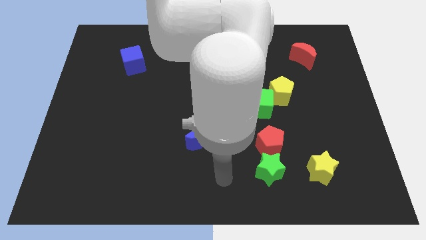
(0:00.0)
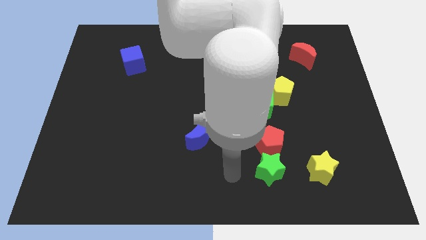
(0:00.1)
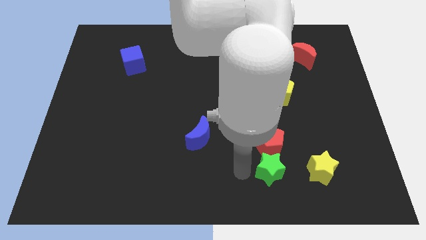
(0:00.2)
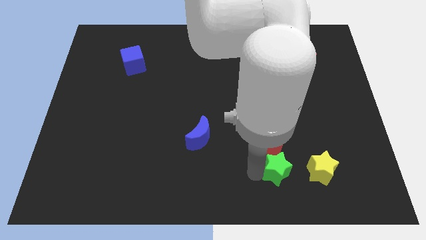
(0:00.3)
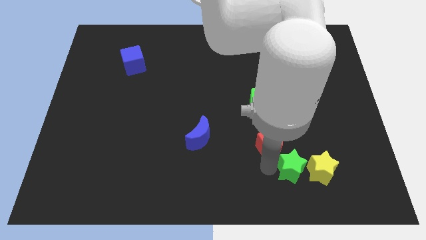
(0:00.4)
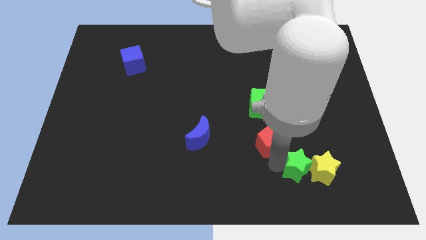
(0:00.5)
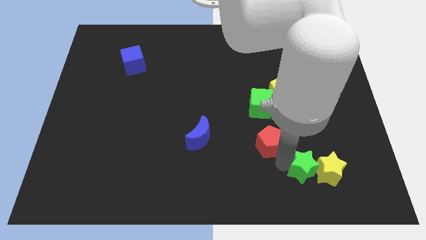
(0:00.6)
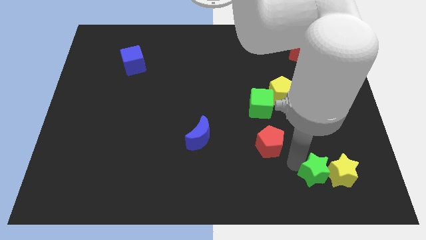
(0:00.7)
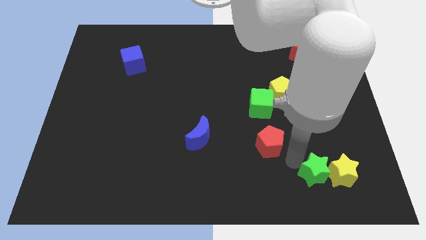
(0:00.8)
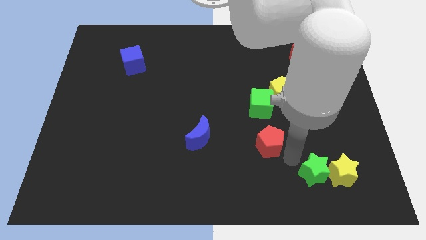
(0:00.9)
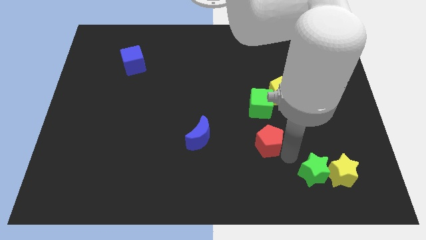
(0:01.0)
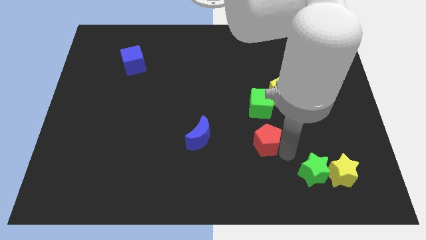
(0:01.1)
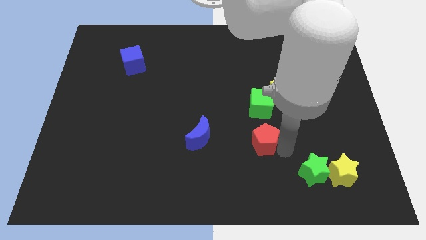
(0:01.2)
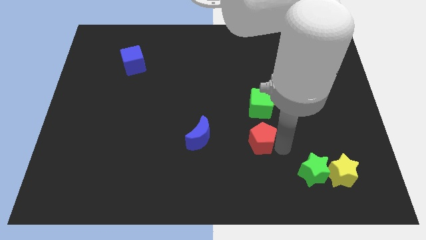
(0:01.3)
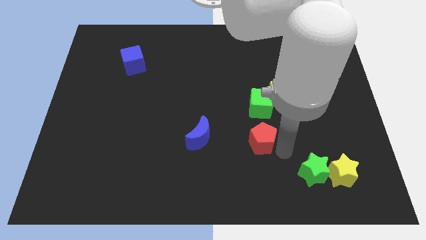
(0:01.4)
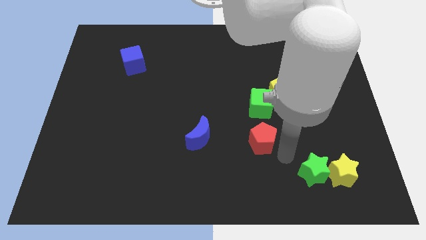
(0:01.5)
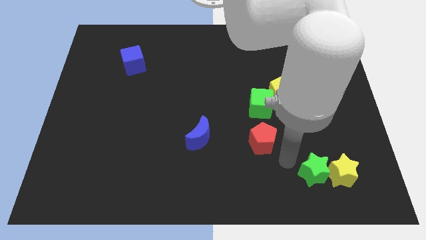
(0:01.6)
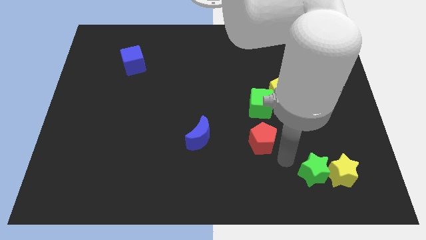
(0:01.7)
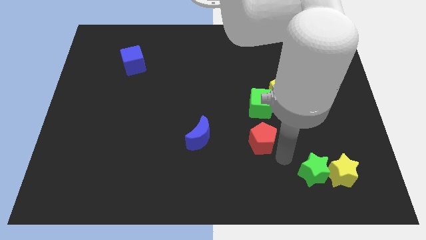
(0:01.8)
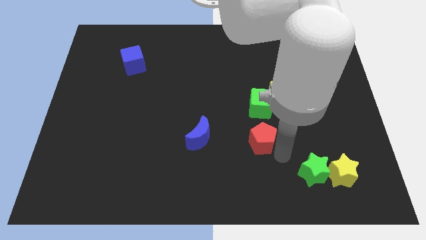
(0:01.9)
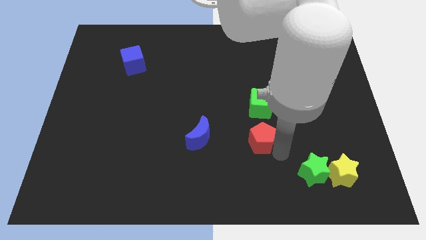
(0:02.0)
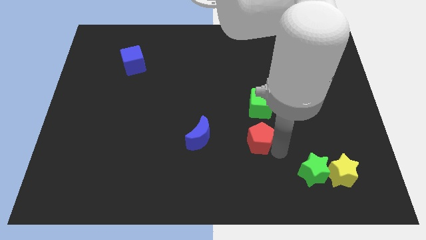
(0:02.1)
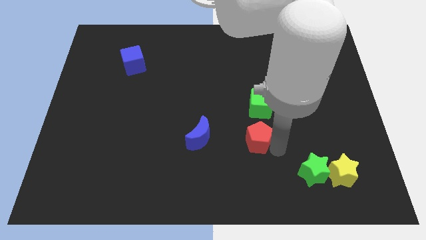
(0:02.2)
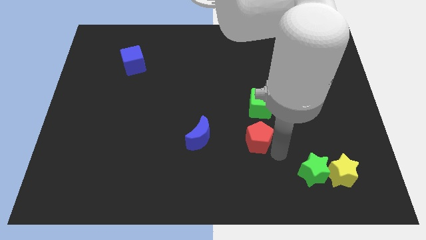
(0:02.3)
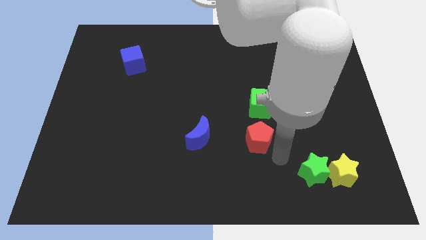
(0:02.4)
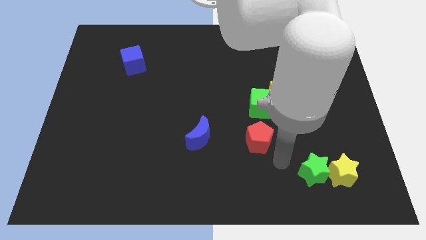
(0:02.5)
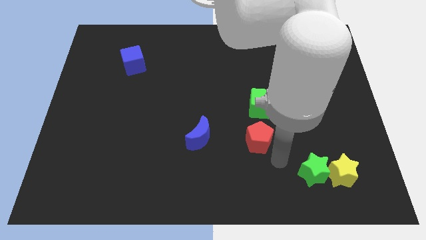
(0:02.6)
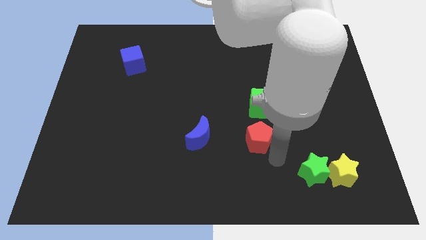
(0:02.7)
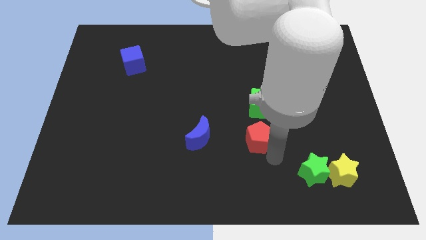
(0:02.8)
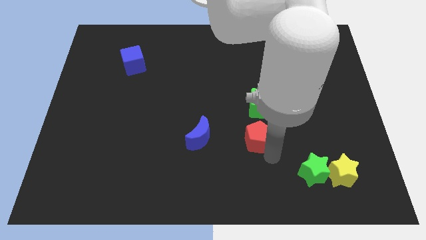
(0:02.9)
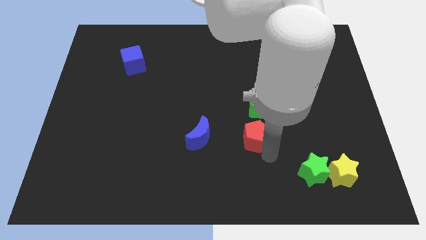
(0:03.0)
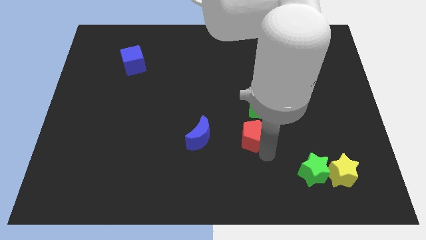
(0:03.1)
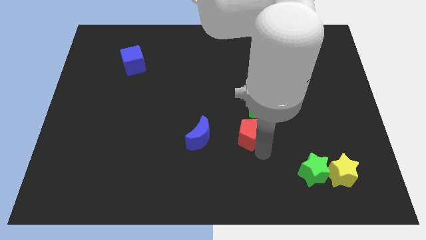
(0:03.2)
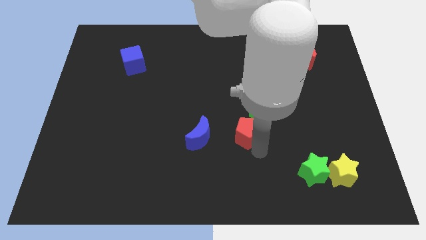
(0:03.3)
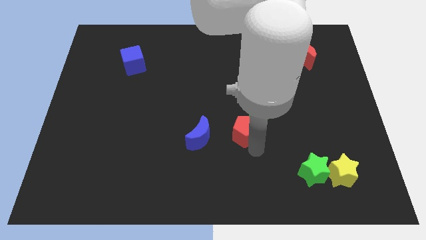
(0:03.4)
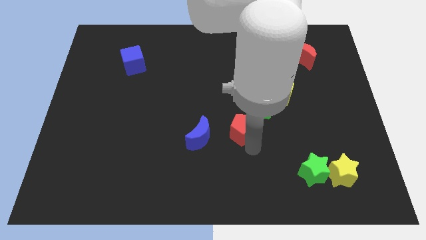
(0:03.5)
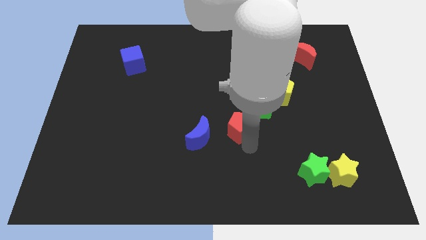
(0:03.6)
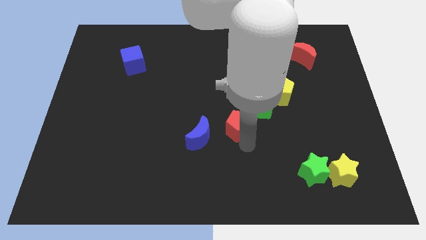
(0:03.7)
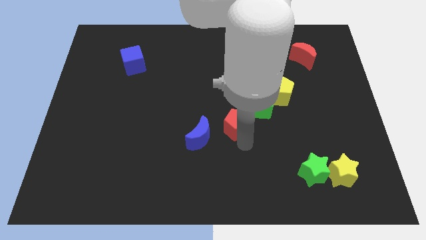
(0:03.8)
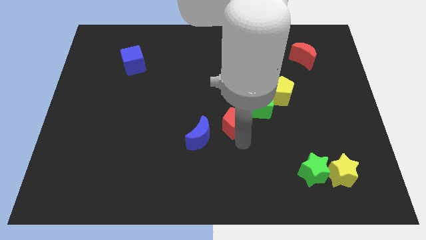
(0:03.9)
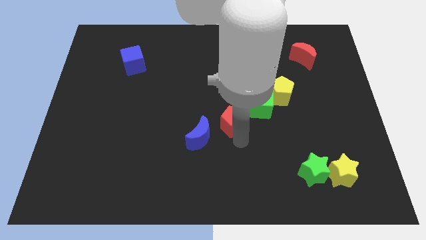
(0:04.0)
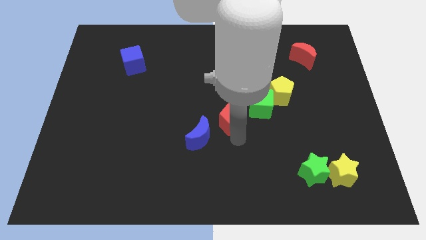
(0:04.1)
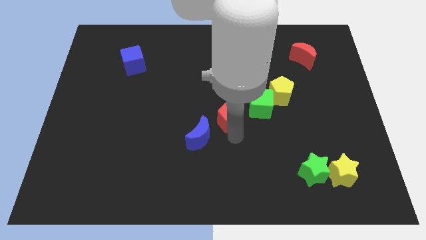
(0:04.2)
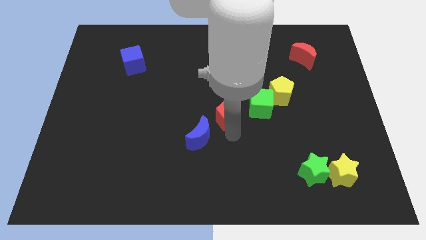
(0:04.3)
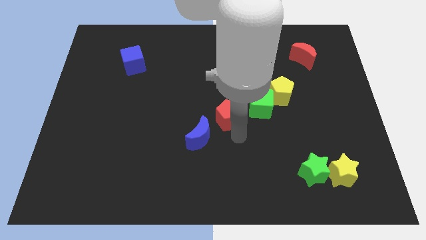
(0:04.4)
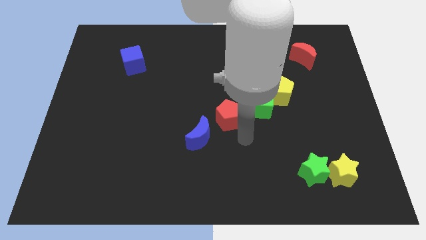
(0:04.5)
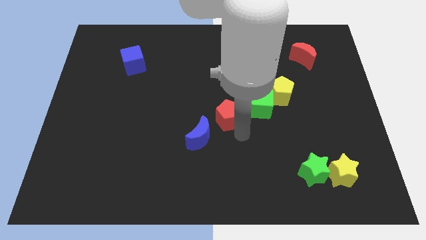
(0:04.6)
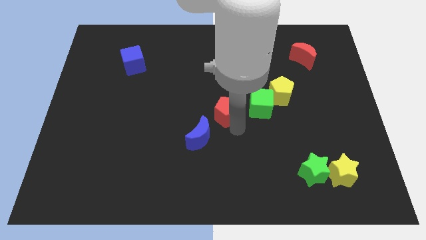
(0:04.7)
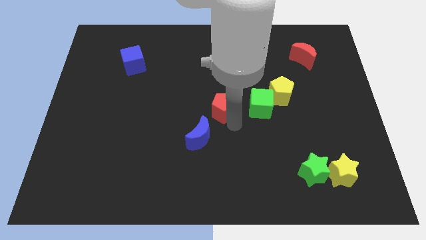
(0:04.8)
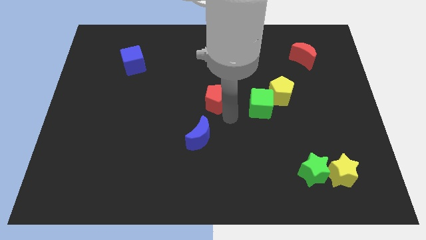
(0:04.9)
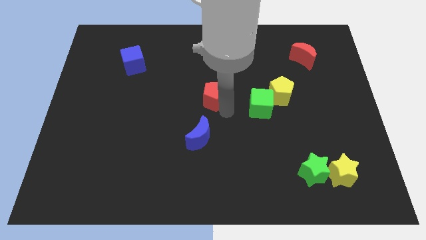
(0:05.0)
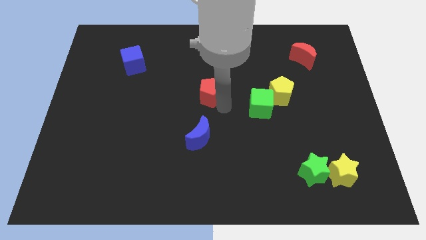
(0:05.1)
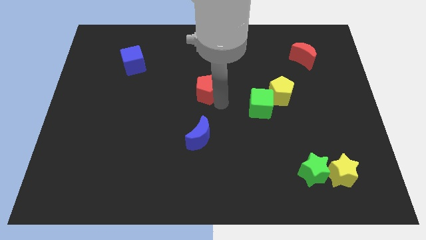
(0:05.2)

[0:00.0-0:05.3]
slide the red pentagon upwards and then left

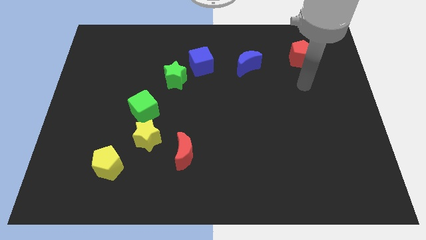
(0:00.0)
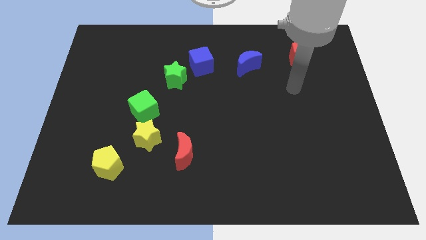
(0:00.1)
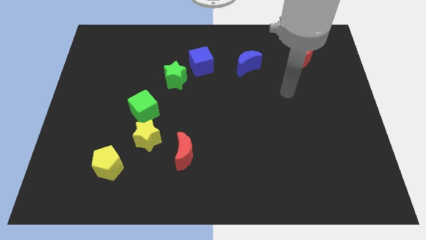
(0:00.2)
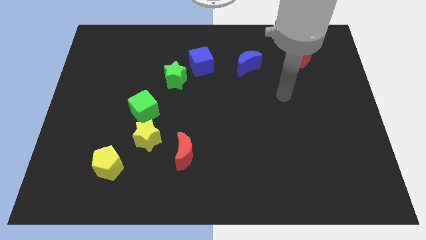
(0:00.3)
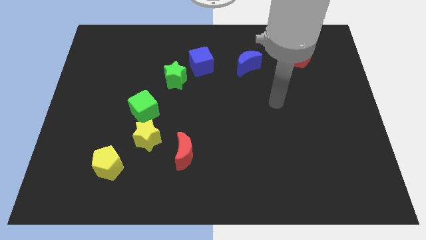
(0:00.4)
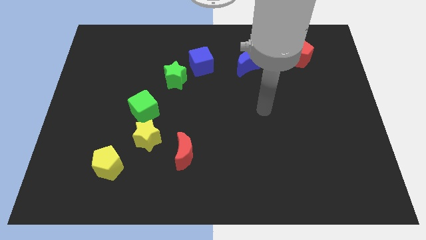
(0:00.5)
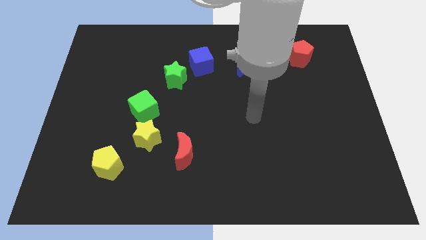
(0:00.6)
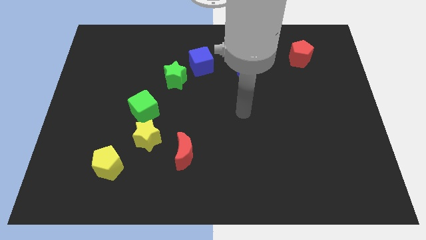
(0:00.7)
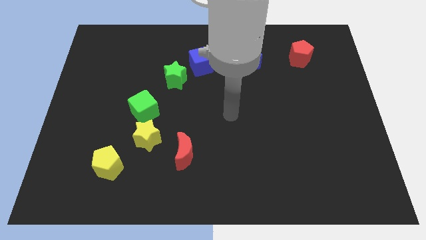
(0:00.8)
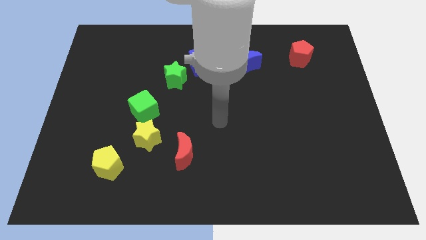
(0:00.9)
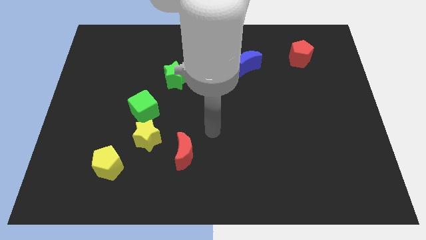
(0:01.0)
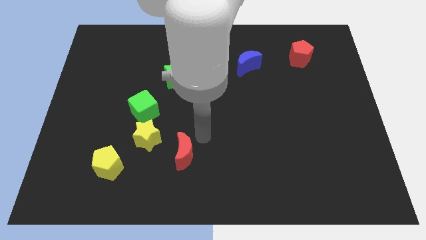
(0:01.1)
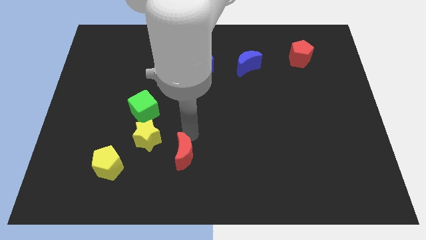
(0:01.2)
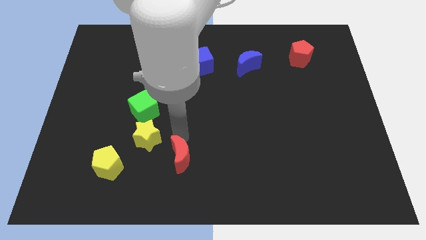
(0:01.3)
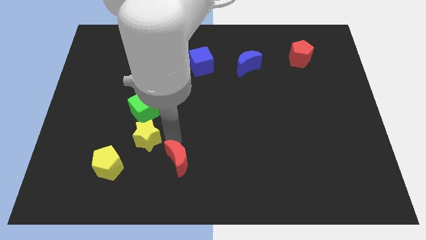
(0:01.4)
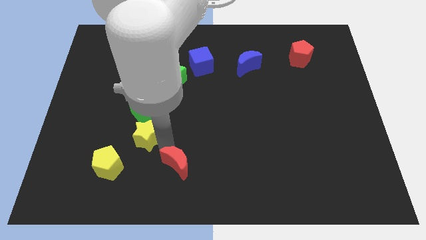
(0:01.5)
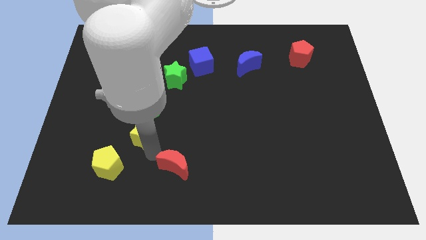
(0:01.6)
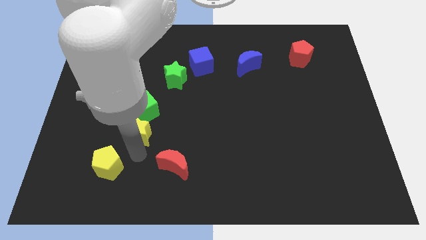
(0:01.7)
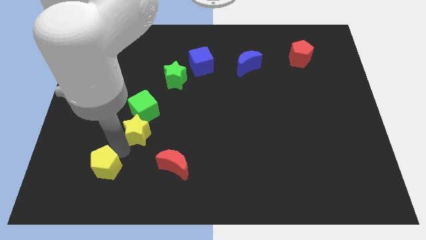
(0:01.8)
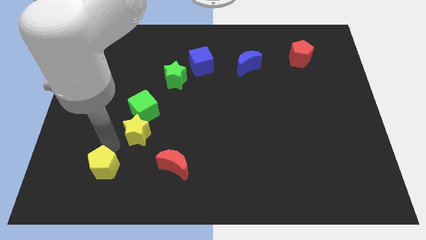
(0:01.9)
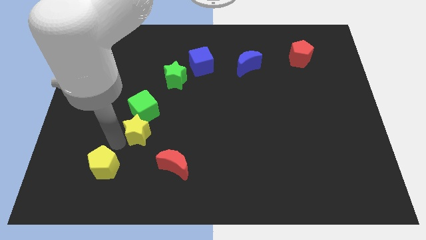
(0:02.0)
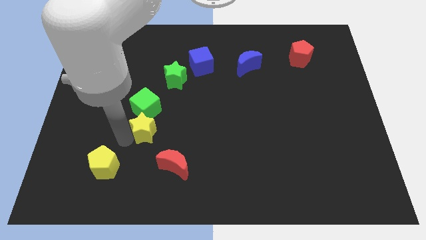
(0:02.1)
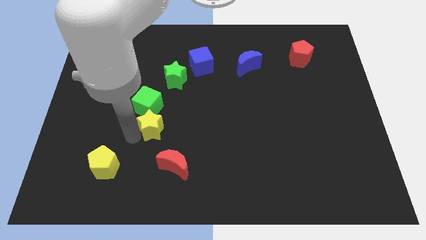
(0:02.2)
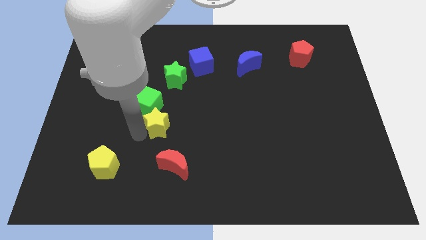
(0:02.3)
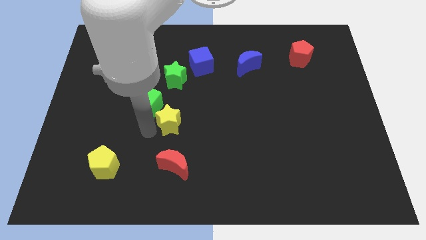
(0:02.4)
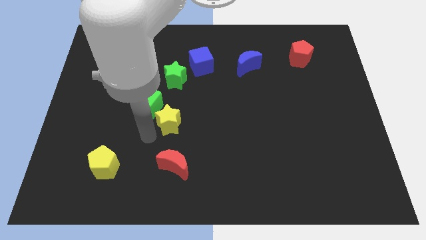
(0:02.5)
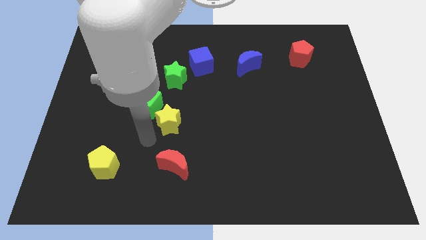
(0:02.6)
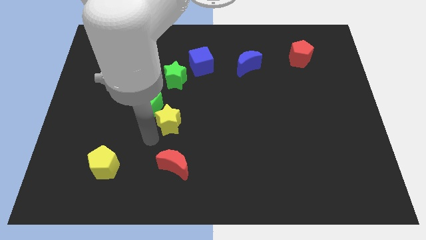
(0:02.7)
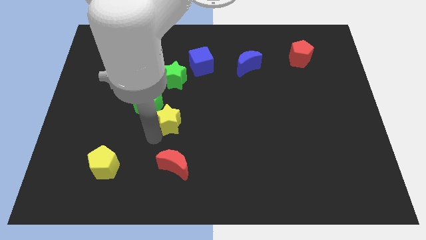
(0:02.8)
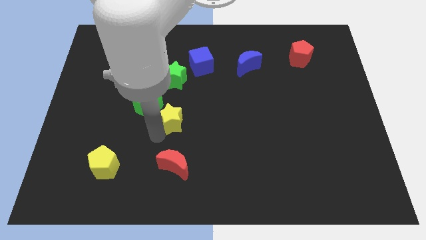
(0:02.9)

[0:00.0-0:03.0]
slide the yellow star upwards and to the right somewhat
